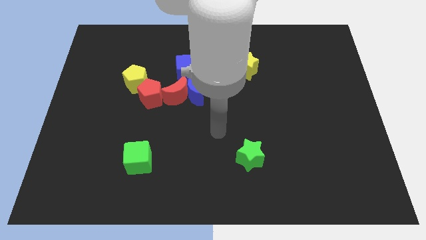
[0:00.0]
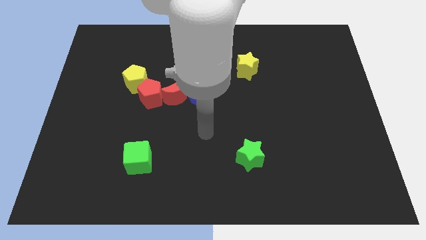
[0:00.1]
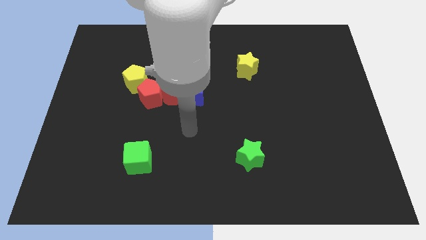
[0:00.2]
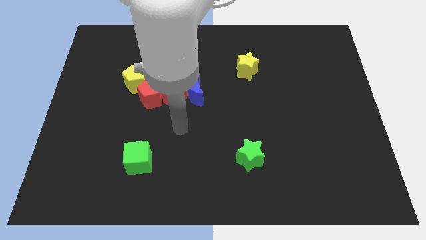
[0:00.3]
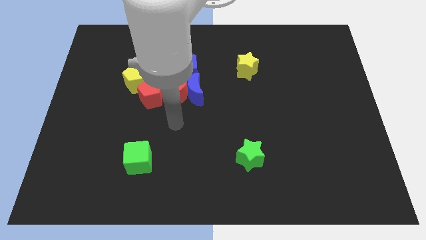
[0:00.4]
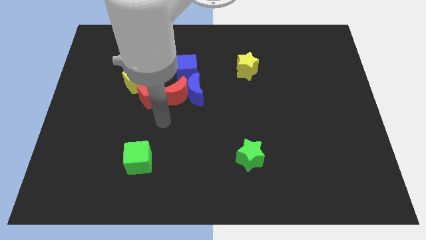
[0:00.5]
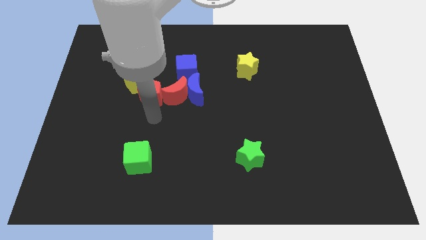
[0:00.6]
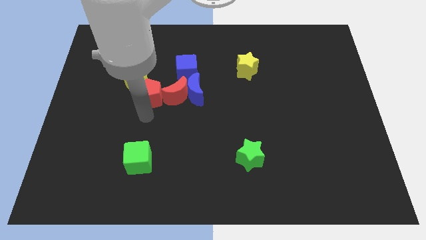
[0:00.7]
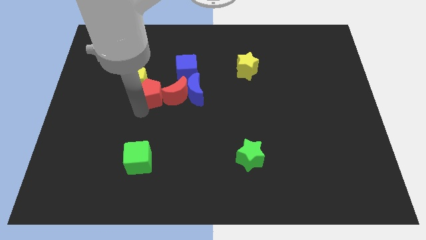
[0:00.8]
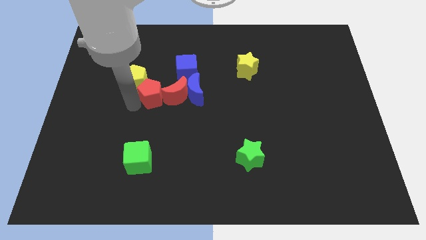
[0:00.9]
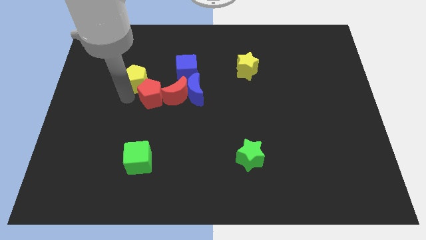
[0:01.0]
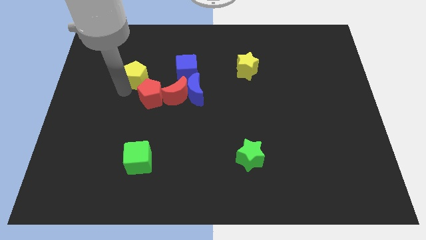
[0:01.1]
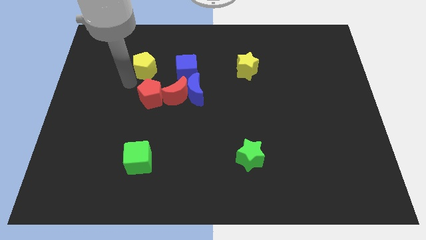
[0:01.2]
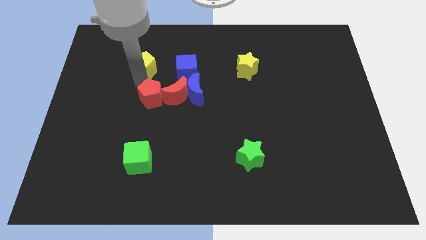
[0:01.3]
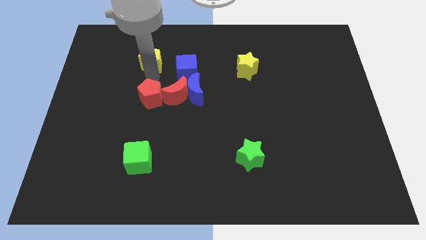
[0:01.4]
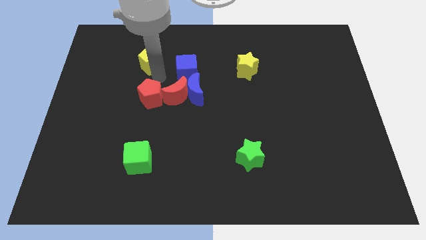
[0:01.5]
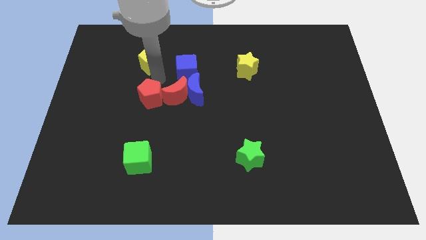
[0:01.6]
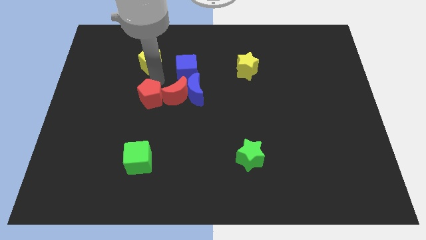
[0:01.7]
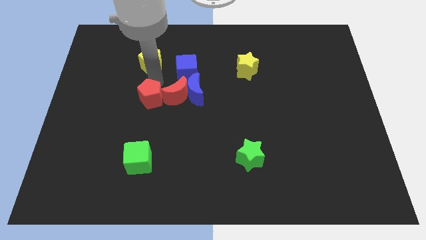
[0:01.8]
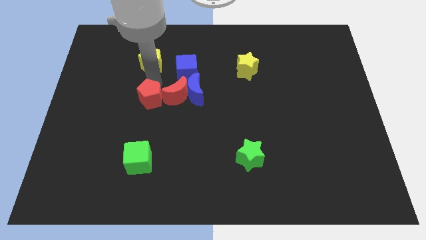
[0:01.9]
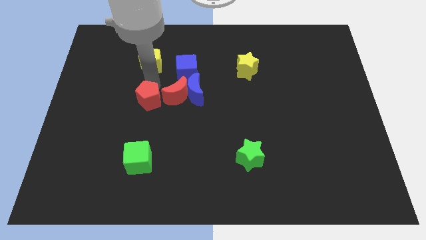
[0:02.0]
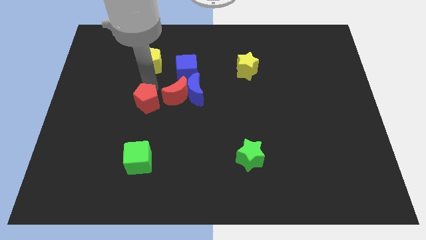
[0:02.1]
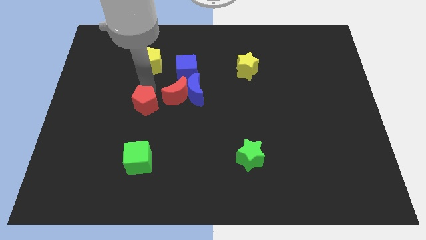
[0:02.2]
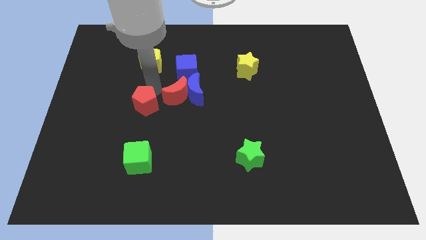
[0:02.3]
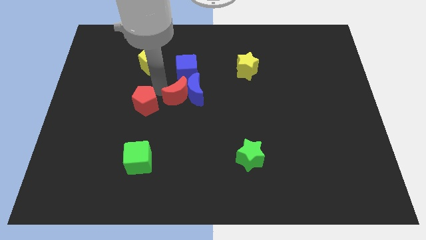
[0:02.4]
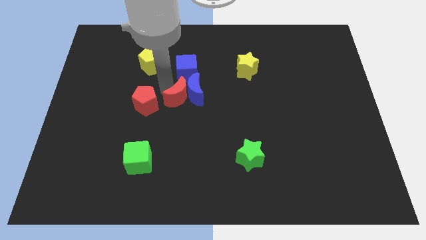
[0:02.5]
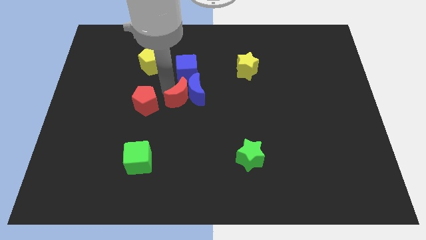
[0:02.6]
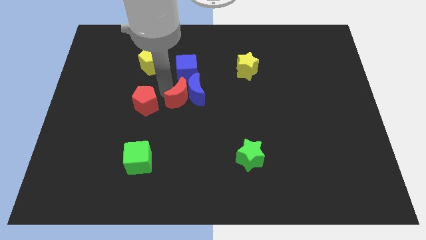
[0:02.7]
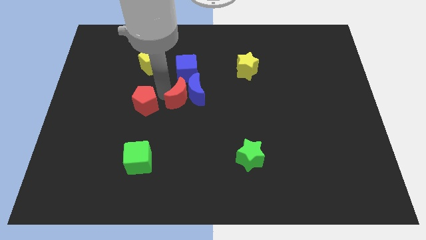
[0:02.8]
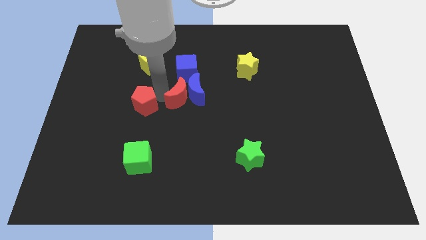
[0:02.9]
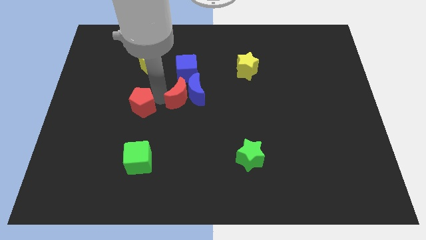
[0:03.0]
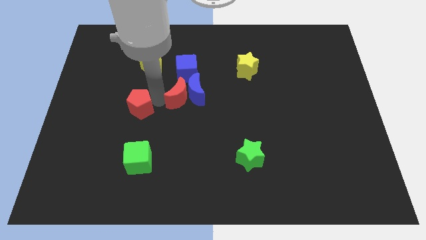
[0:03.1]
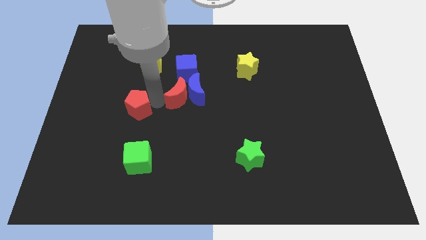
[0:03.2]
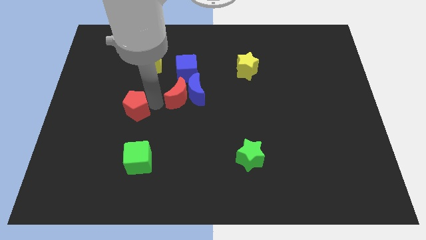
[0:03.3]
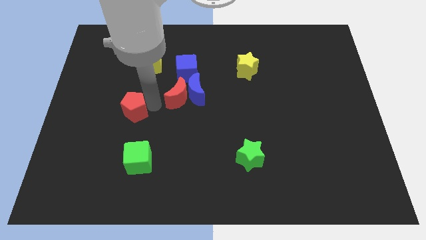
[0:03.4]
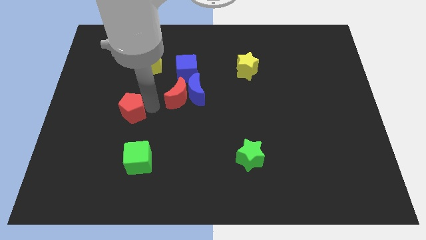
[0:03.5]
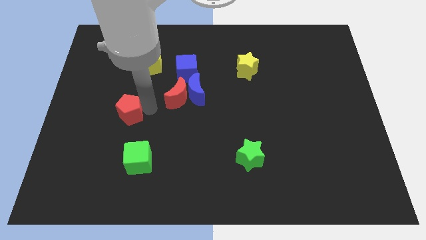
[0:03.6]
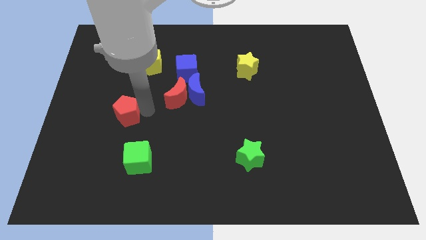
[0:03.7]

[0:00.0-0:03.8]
slide the red pentagon down and then left slightly

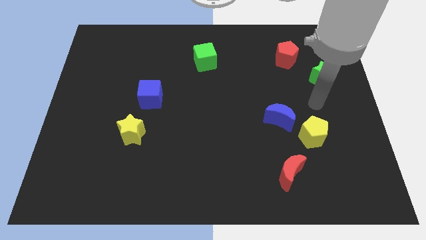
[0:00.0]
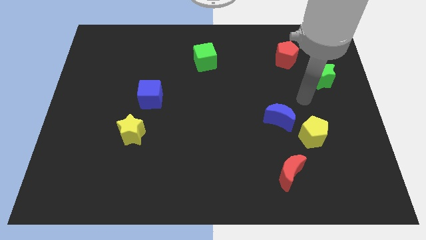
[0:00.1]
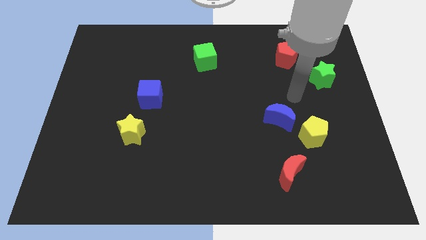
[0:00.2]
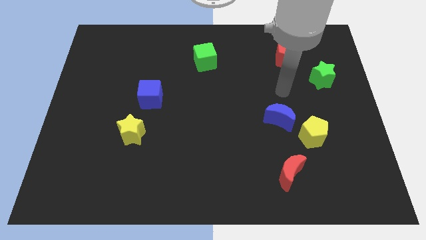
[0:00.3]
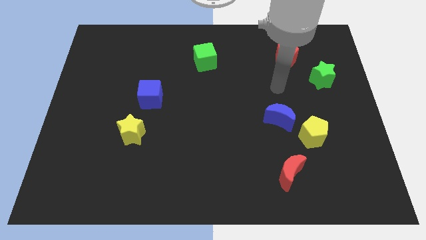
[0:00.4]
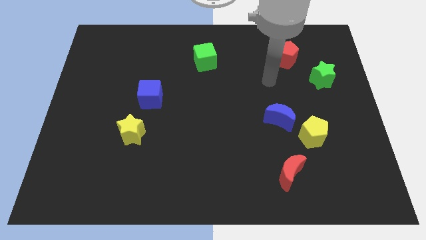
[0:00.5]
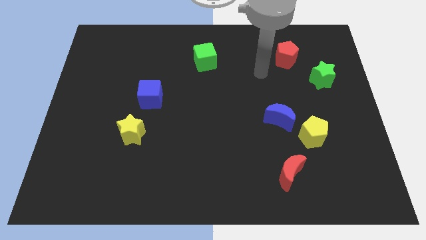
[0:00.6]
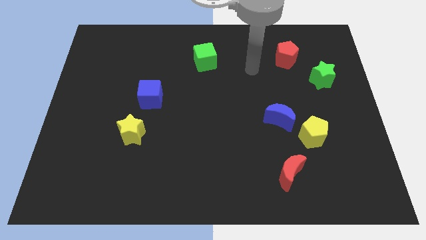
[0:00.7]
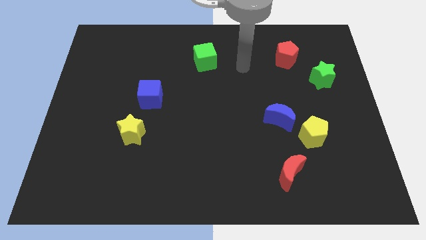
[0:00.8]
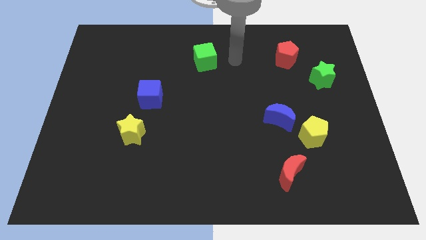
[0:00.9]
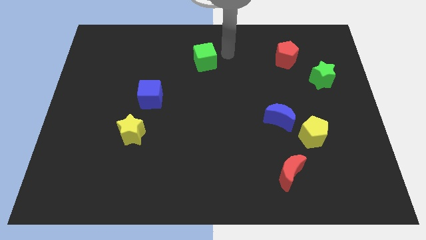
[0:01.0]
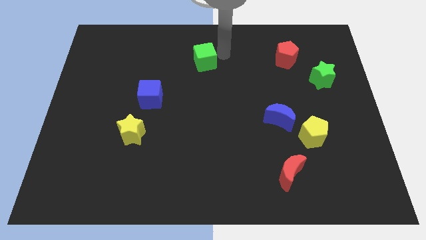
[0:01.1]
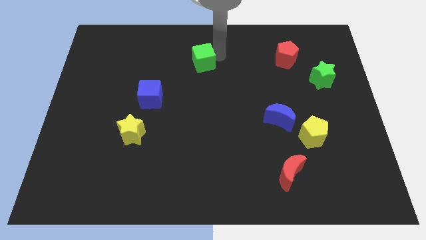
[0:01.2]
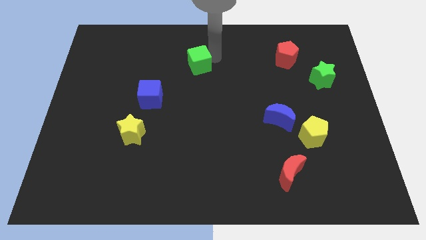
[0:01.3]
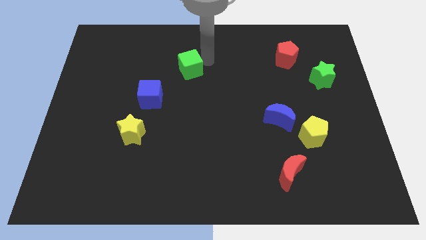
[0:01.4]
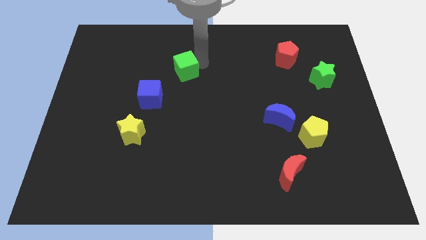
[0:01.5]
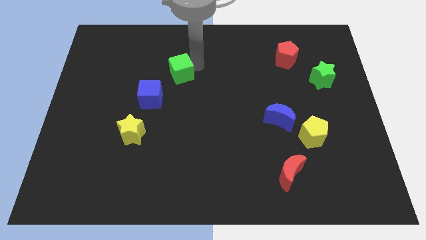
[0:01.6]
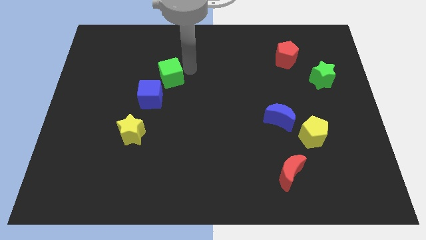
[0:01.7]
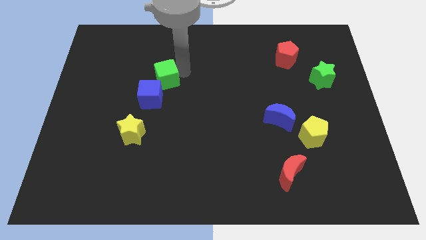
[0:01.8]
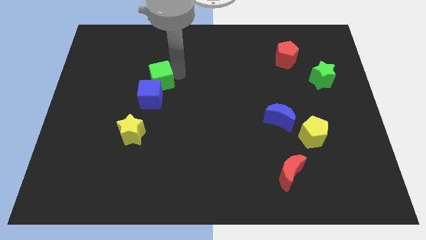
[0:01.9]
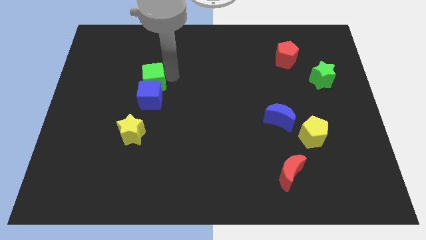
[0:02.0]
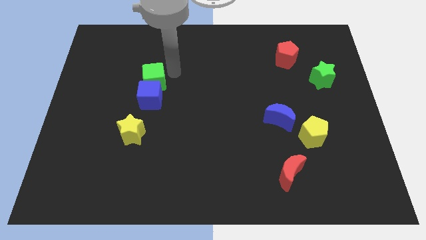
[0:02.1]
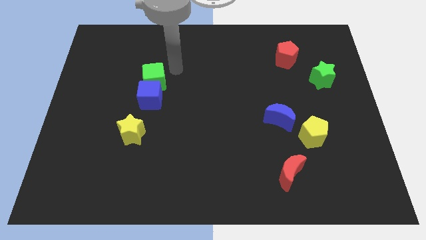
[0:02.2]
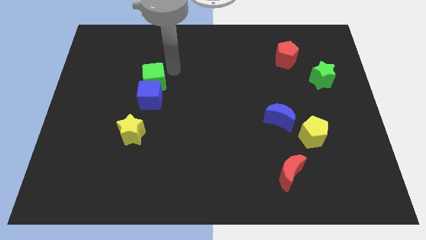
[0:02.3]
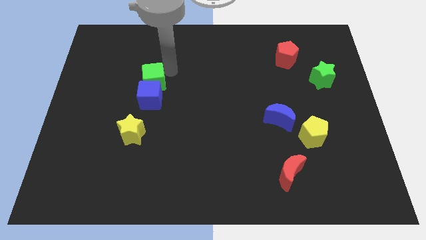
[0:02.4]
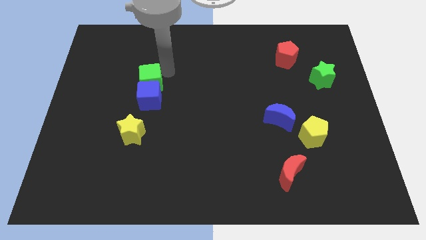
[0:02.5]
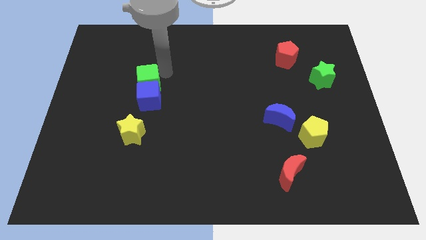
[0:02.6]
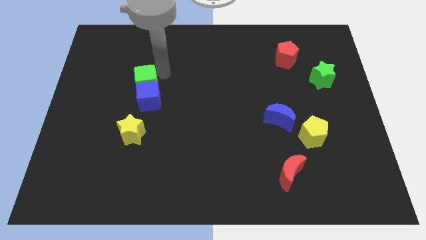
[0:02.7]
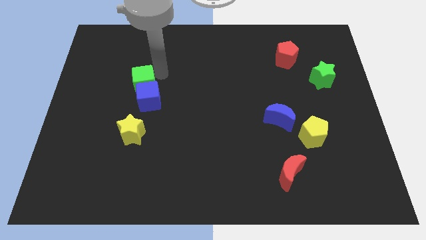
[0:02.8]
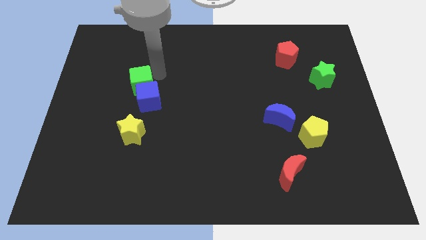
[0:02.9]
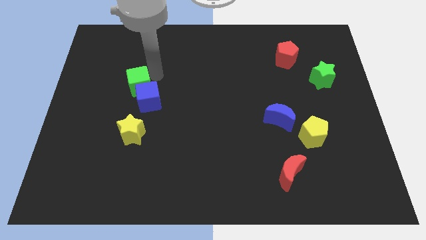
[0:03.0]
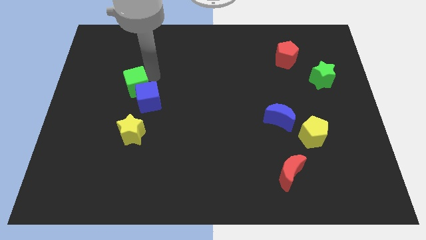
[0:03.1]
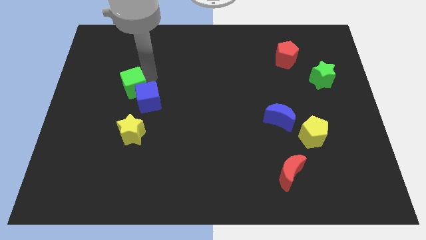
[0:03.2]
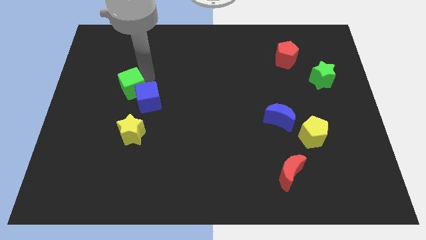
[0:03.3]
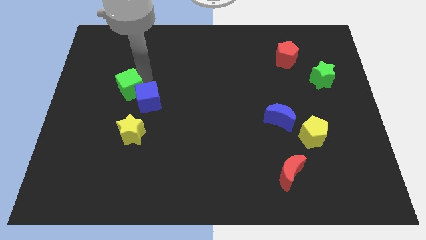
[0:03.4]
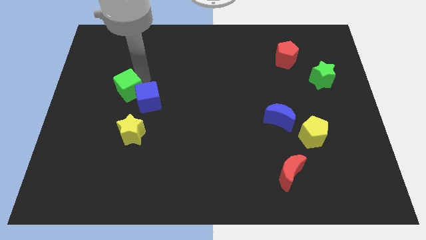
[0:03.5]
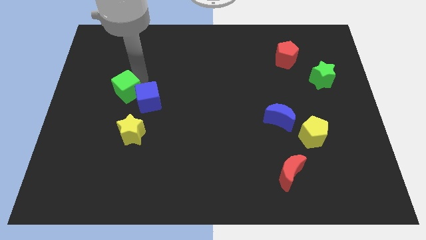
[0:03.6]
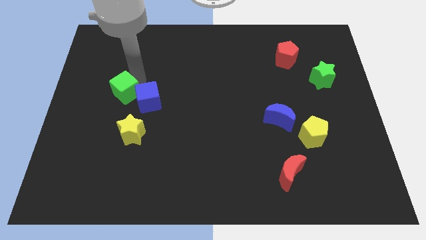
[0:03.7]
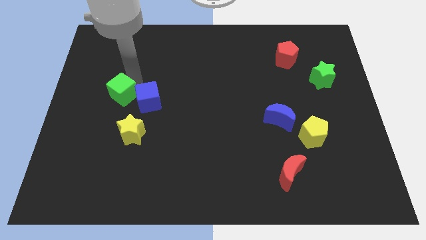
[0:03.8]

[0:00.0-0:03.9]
push the green cube downwards and then left

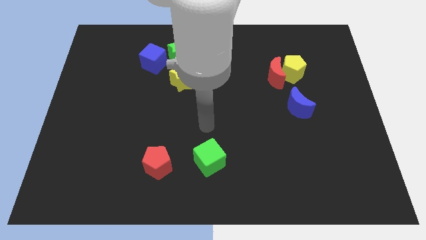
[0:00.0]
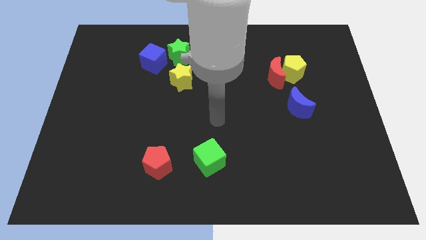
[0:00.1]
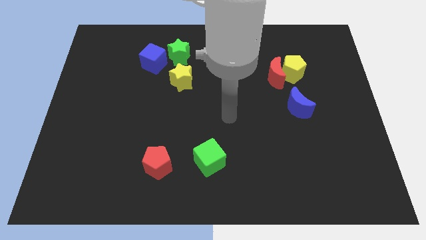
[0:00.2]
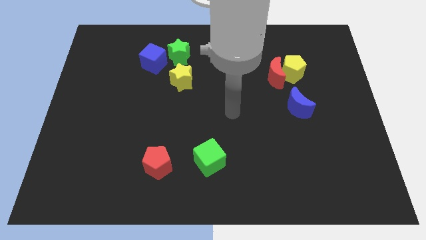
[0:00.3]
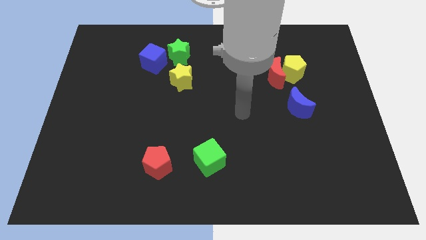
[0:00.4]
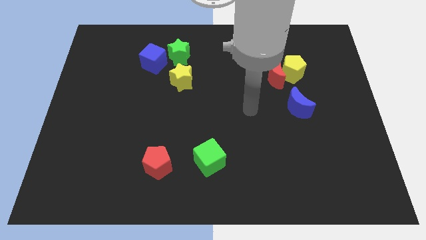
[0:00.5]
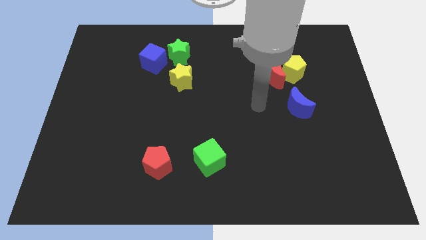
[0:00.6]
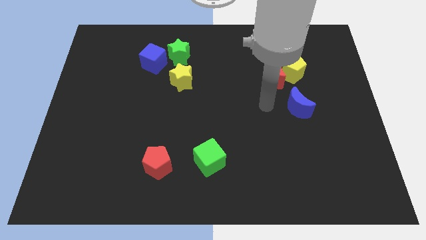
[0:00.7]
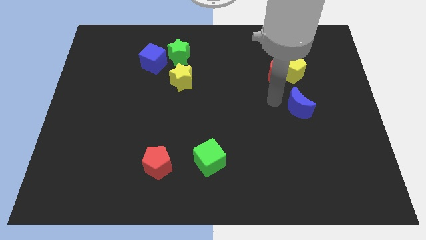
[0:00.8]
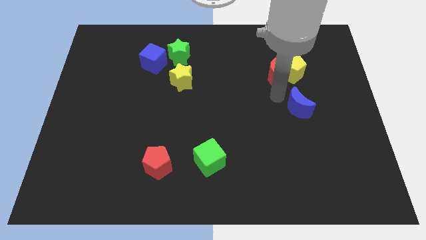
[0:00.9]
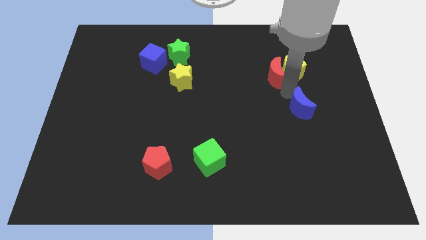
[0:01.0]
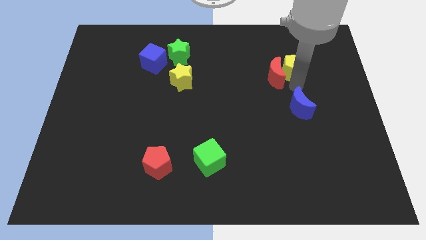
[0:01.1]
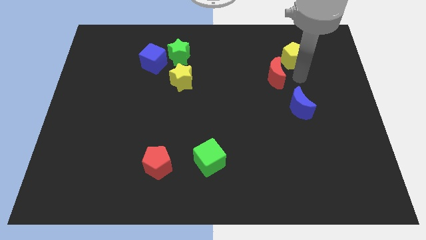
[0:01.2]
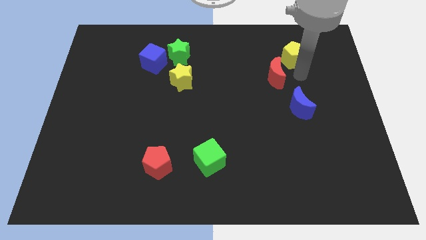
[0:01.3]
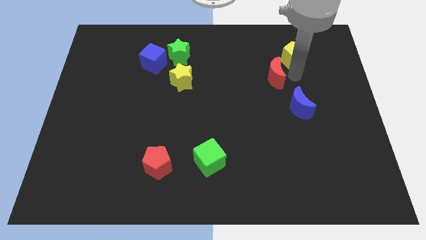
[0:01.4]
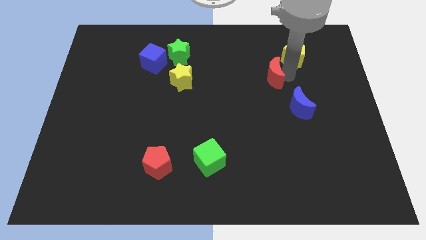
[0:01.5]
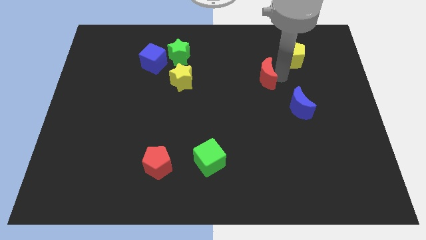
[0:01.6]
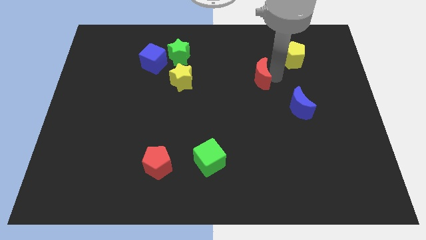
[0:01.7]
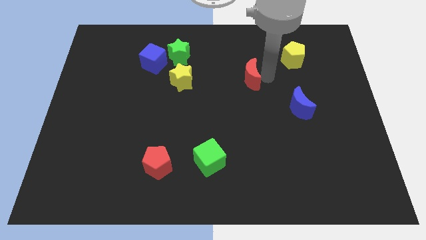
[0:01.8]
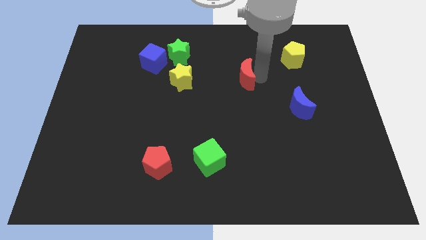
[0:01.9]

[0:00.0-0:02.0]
slide the red moon slightly to the left
